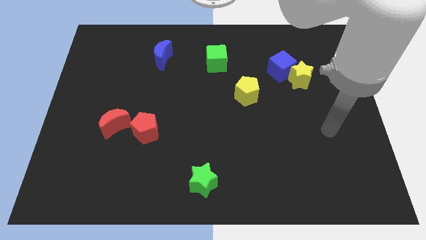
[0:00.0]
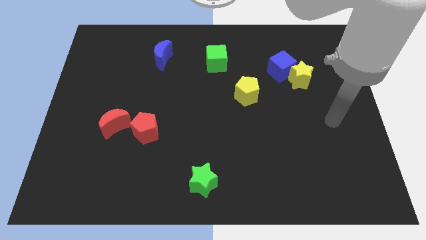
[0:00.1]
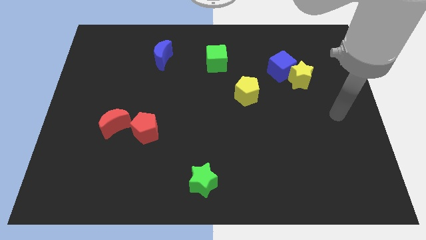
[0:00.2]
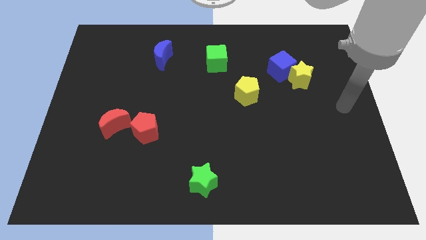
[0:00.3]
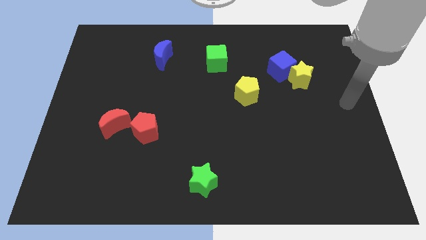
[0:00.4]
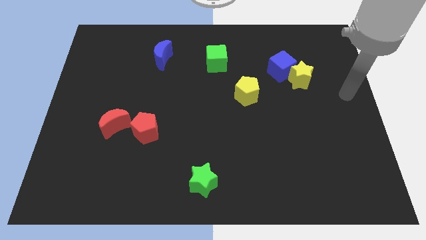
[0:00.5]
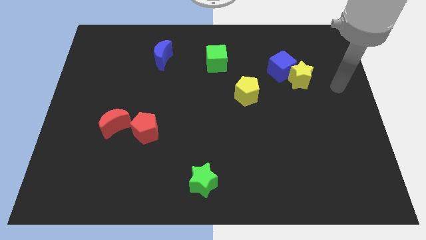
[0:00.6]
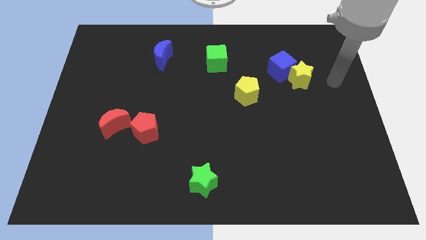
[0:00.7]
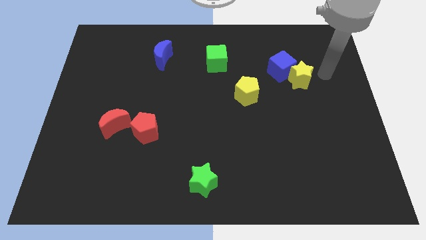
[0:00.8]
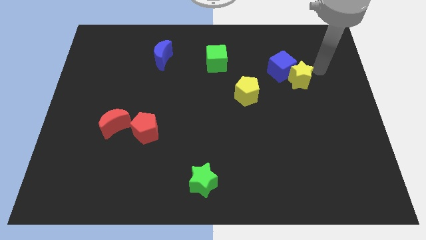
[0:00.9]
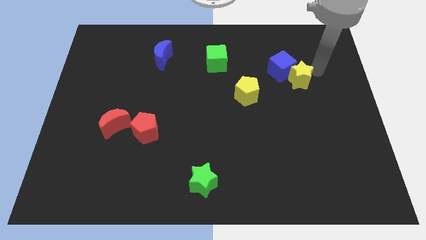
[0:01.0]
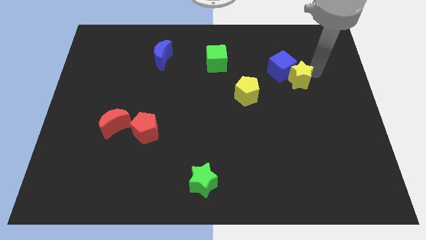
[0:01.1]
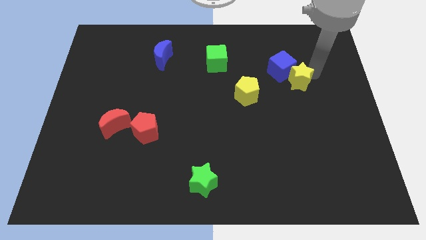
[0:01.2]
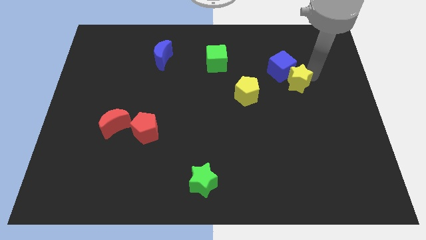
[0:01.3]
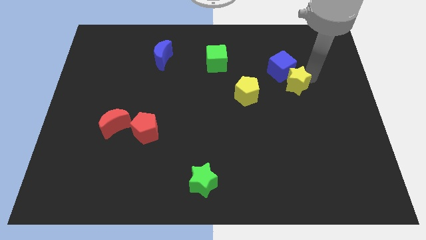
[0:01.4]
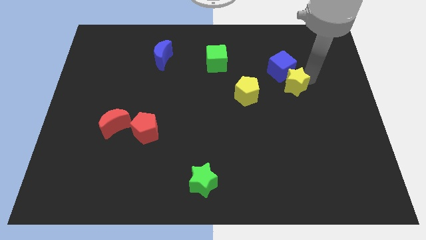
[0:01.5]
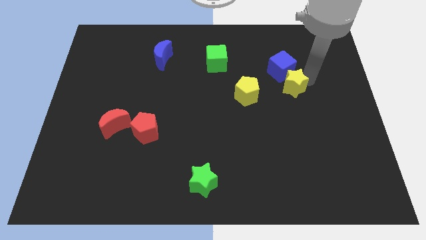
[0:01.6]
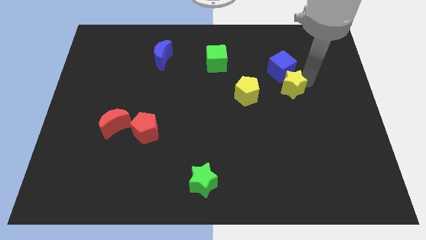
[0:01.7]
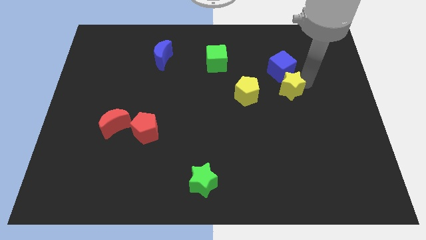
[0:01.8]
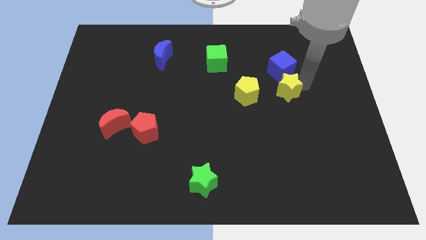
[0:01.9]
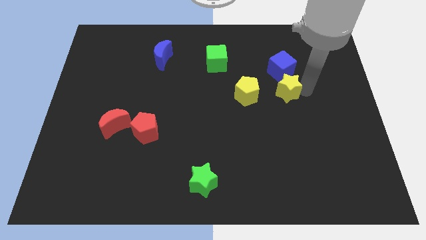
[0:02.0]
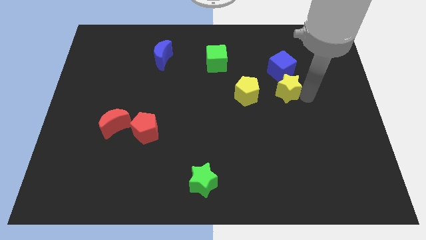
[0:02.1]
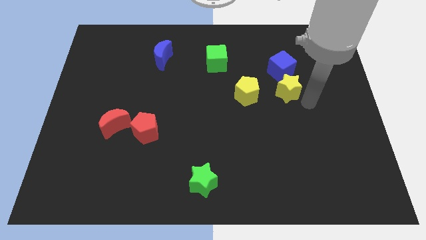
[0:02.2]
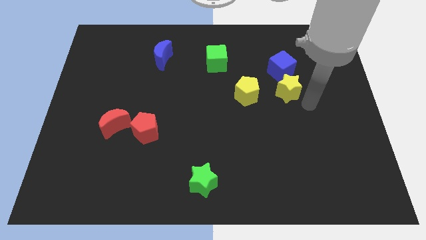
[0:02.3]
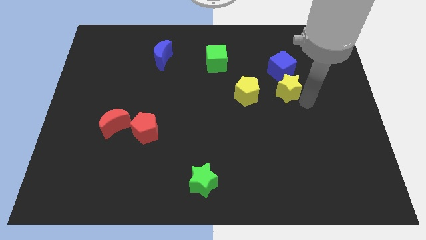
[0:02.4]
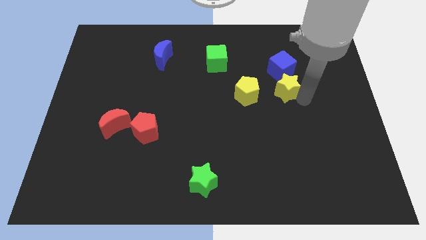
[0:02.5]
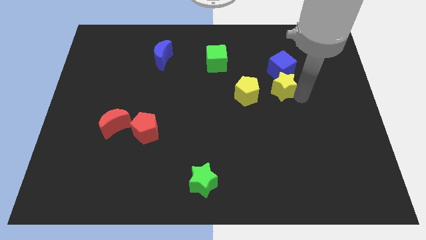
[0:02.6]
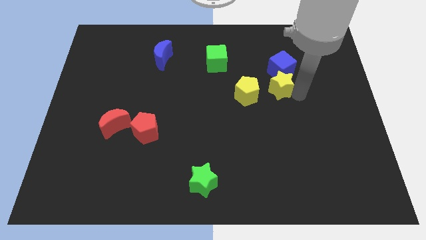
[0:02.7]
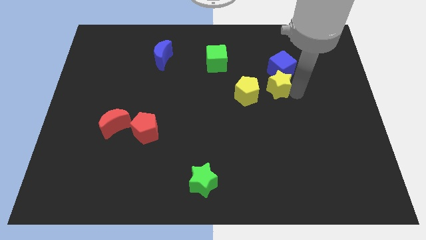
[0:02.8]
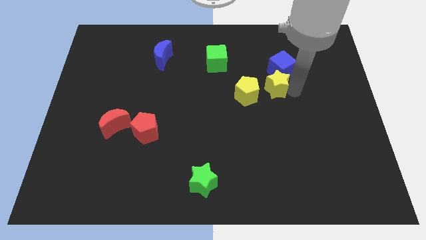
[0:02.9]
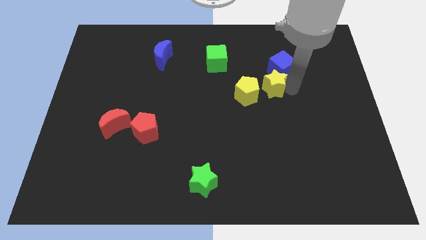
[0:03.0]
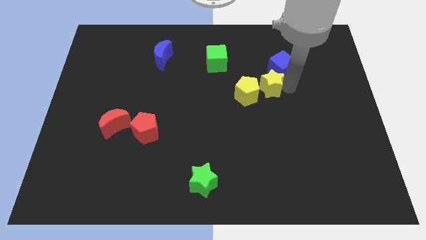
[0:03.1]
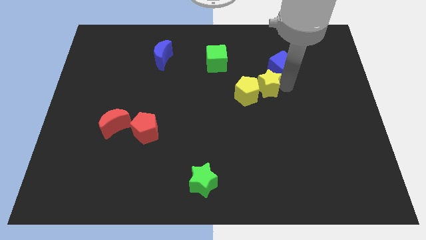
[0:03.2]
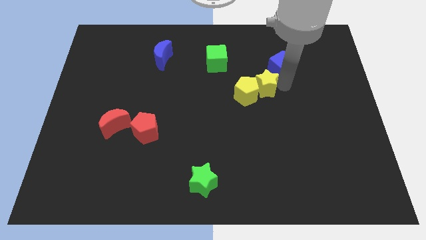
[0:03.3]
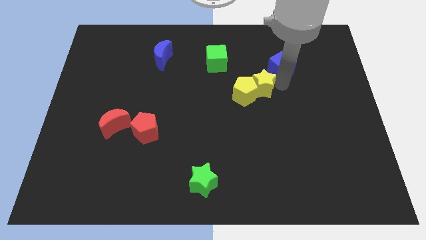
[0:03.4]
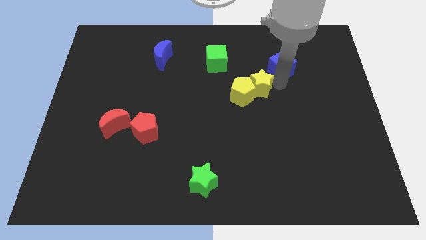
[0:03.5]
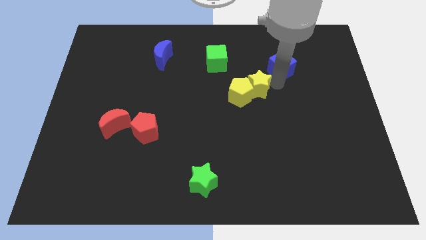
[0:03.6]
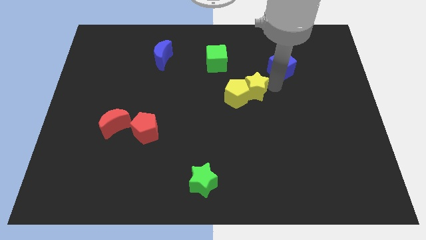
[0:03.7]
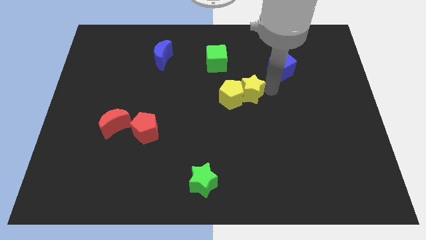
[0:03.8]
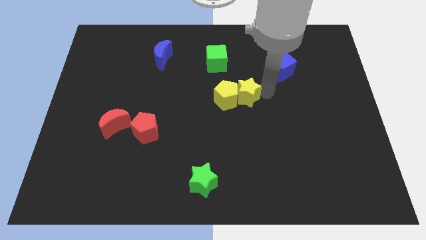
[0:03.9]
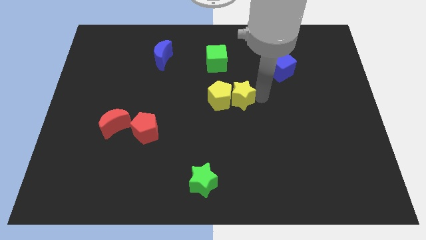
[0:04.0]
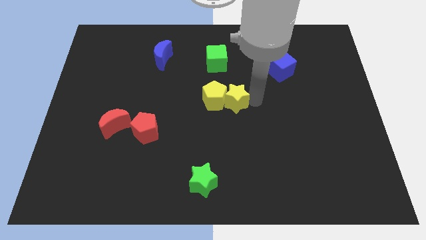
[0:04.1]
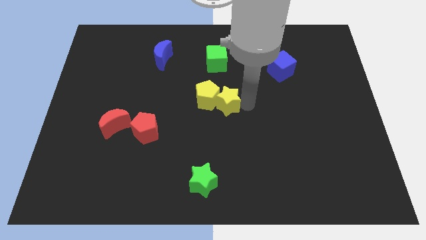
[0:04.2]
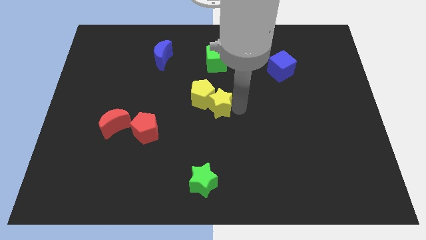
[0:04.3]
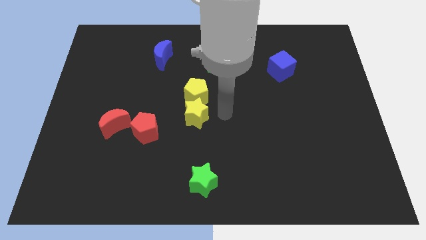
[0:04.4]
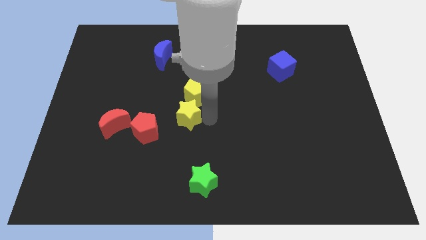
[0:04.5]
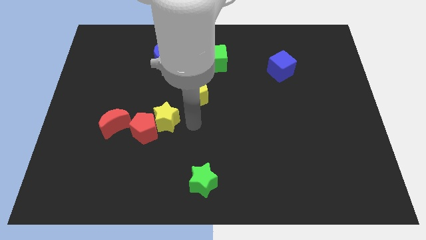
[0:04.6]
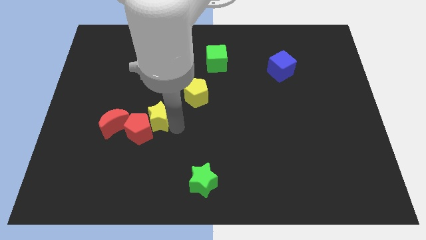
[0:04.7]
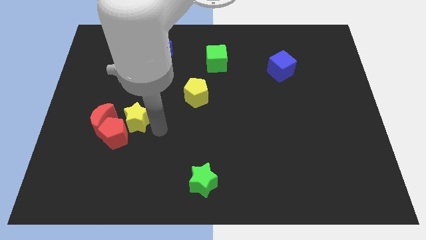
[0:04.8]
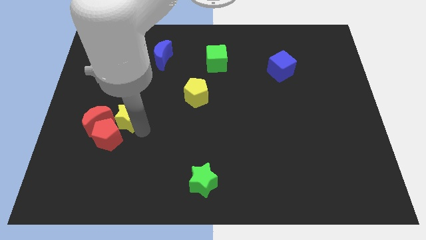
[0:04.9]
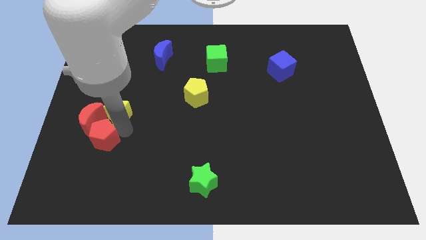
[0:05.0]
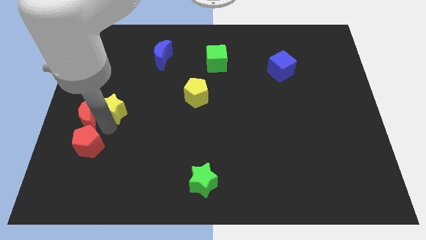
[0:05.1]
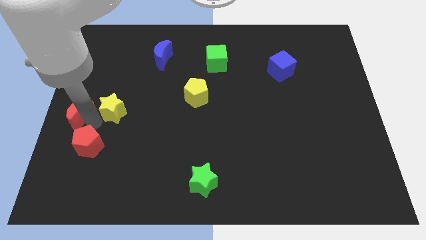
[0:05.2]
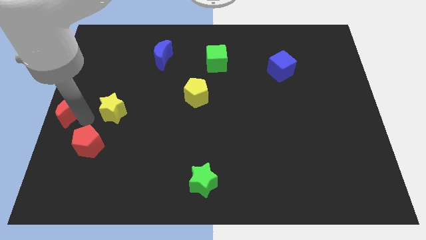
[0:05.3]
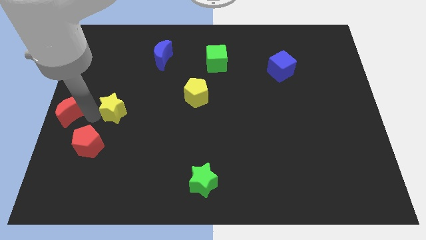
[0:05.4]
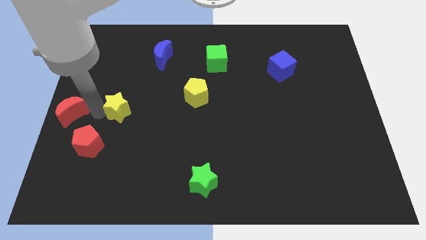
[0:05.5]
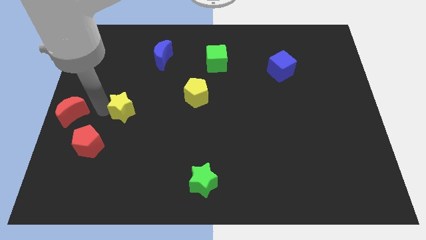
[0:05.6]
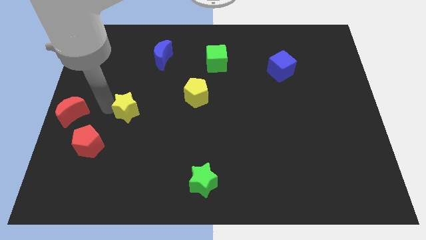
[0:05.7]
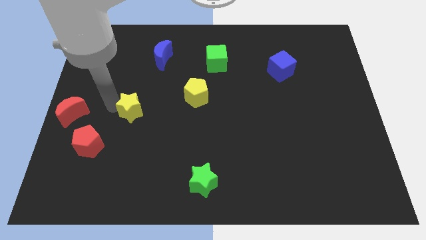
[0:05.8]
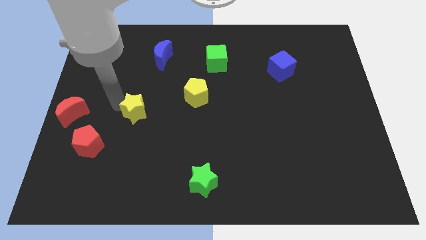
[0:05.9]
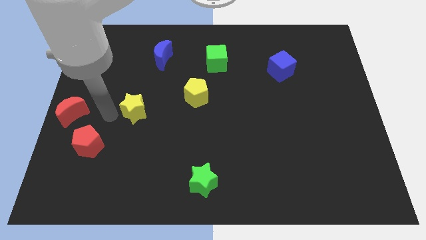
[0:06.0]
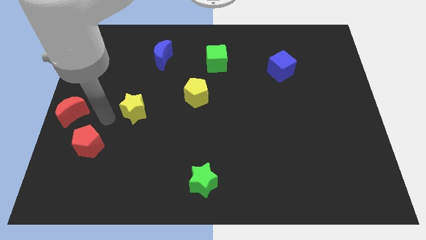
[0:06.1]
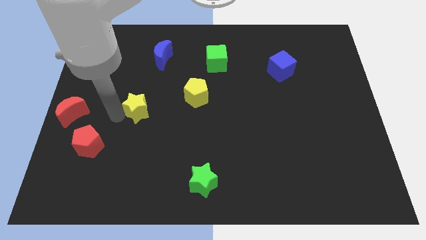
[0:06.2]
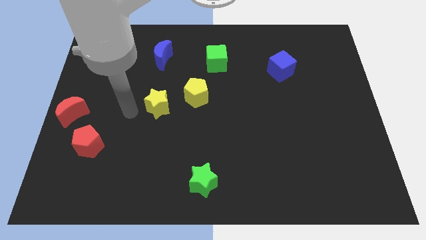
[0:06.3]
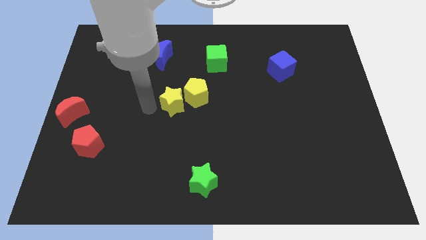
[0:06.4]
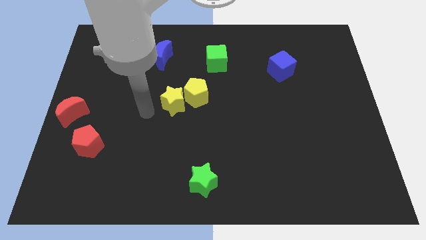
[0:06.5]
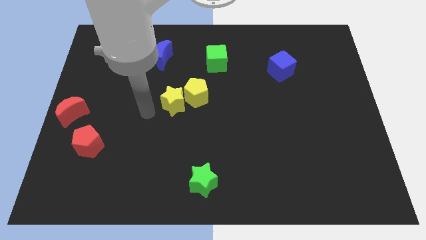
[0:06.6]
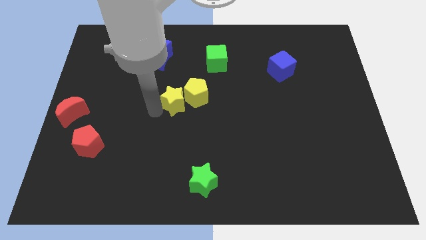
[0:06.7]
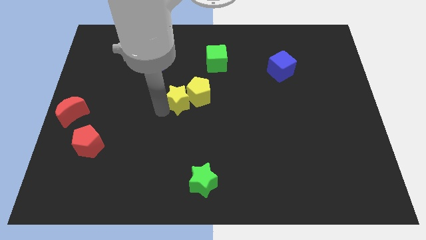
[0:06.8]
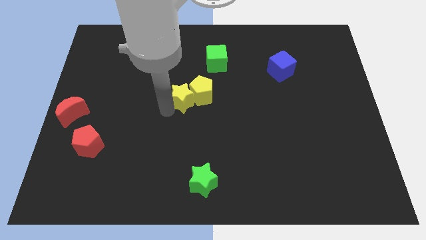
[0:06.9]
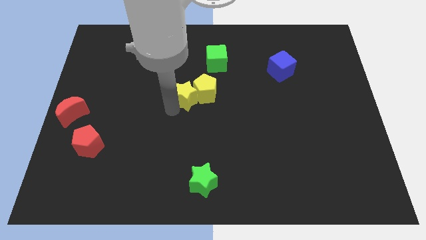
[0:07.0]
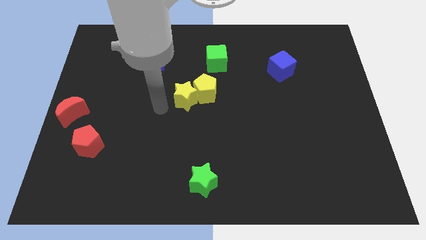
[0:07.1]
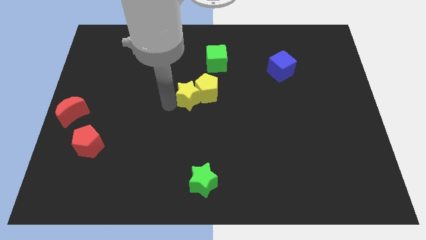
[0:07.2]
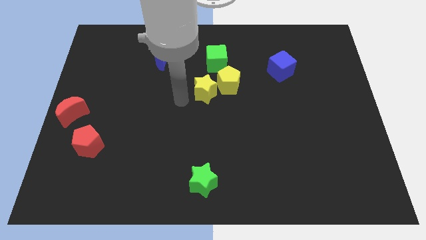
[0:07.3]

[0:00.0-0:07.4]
move the yellow star to the left of the yellow pentagon
